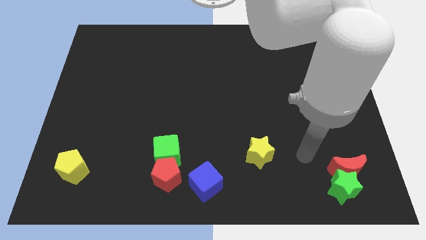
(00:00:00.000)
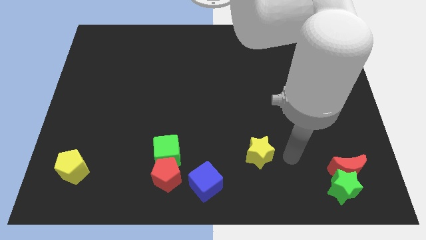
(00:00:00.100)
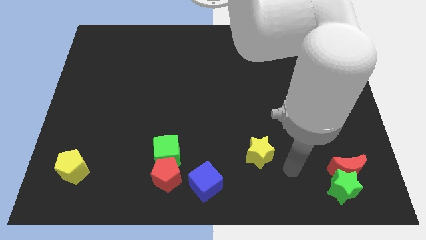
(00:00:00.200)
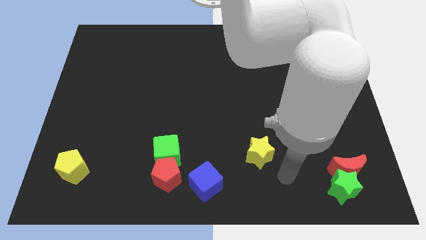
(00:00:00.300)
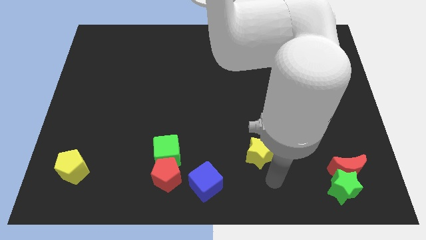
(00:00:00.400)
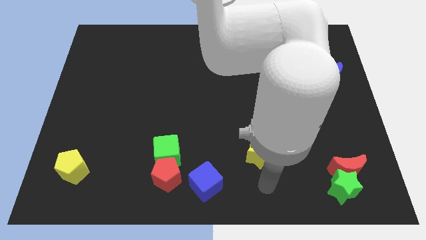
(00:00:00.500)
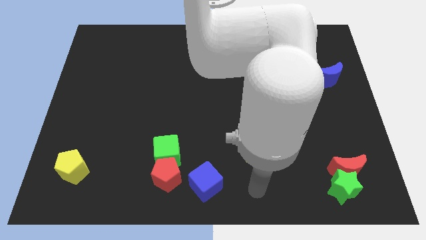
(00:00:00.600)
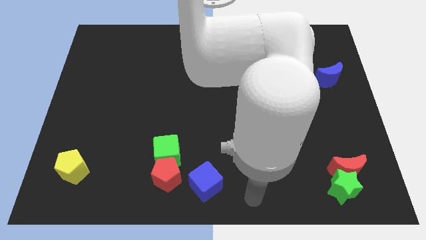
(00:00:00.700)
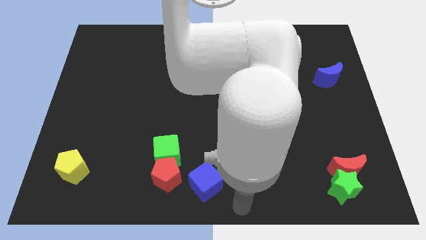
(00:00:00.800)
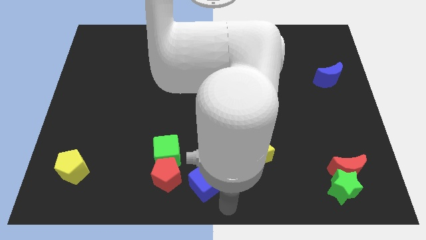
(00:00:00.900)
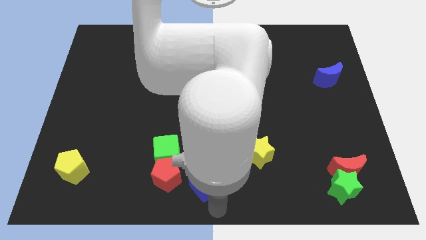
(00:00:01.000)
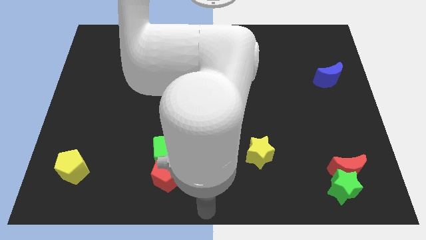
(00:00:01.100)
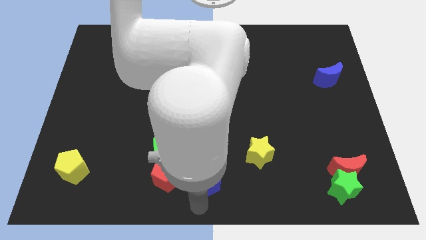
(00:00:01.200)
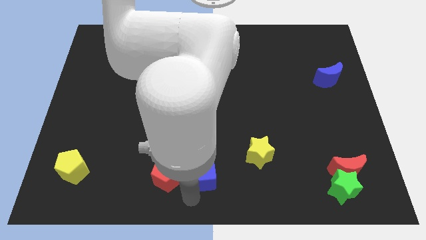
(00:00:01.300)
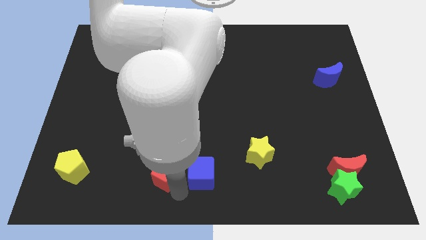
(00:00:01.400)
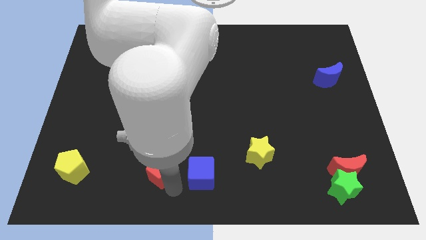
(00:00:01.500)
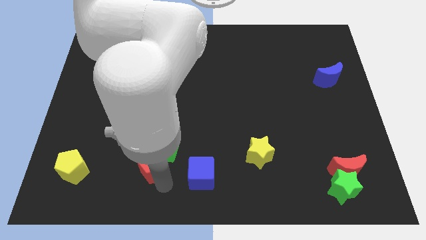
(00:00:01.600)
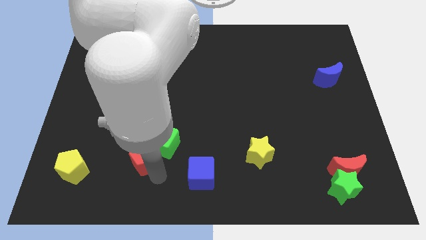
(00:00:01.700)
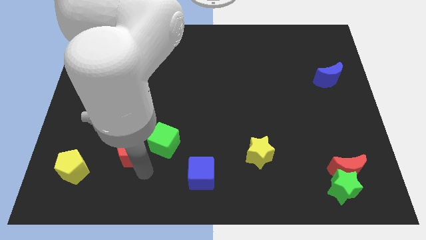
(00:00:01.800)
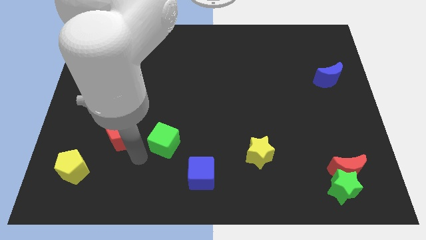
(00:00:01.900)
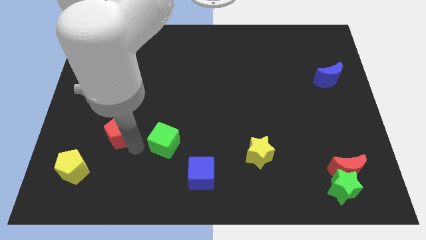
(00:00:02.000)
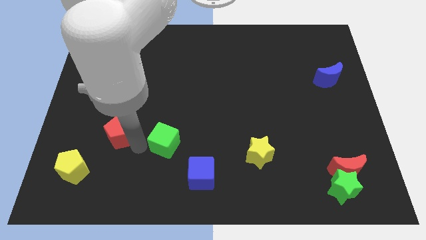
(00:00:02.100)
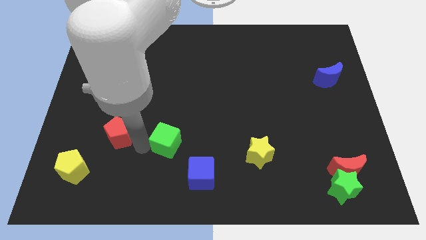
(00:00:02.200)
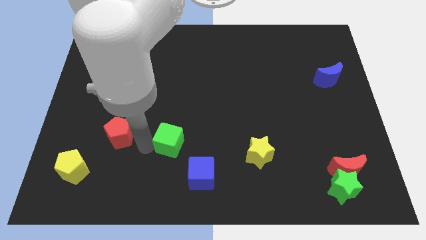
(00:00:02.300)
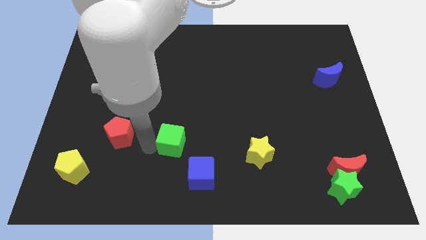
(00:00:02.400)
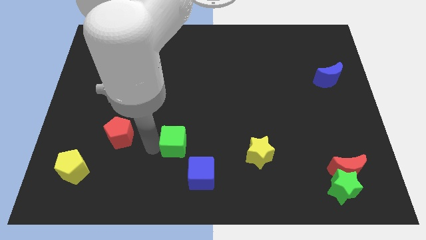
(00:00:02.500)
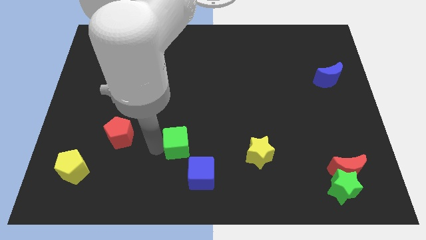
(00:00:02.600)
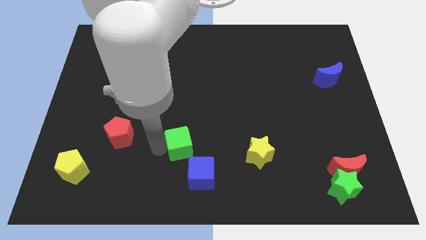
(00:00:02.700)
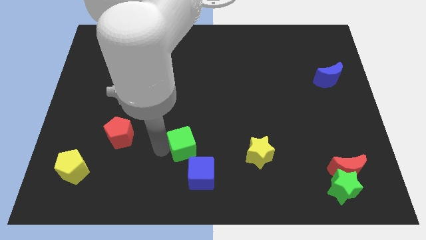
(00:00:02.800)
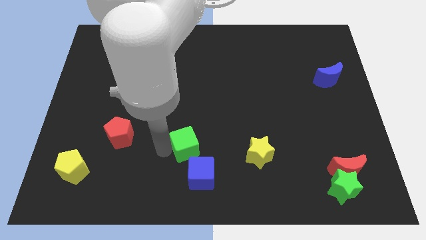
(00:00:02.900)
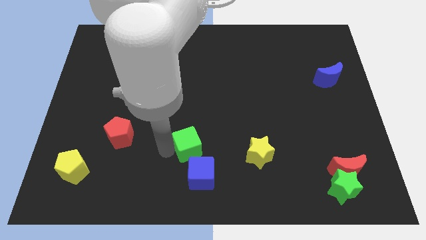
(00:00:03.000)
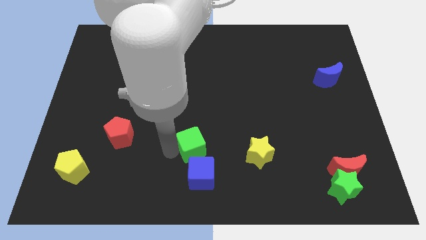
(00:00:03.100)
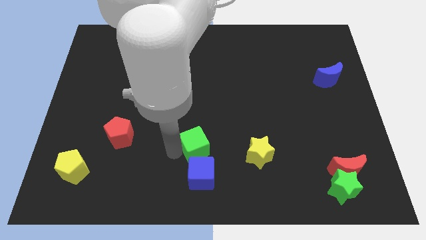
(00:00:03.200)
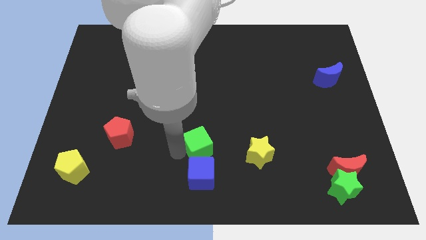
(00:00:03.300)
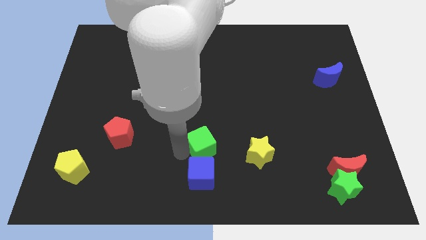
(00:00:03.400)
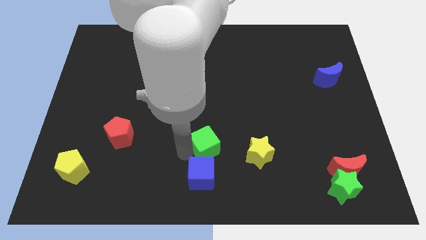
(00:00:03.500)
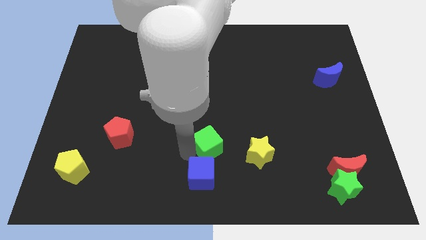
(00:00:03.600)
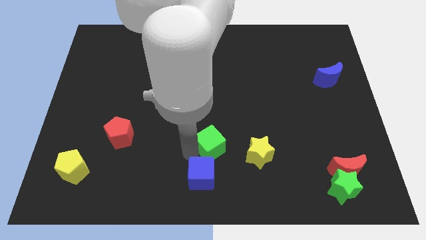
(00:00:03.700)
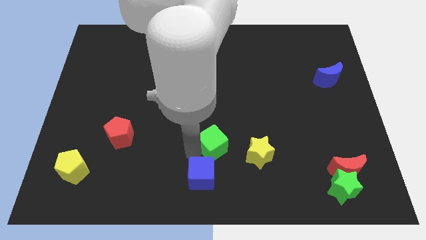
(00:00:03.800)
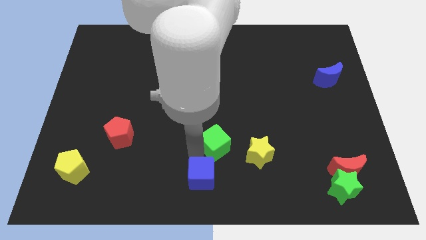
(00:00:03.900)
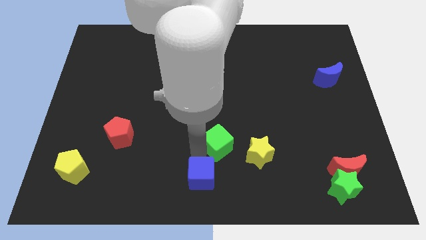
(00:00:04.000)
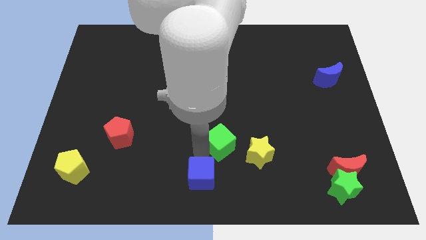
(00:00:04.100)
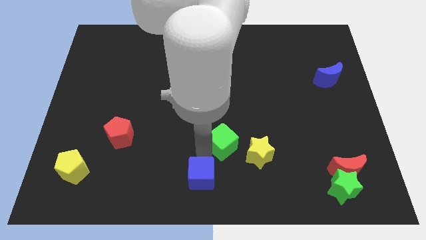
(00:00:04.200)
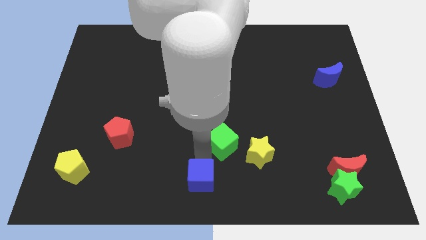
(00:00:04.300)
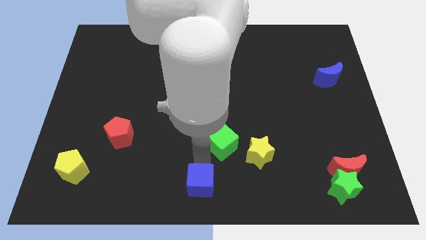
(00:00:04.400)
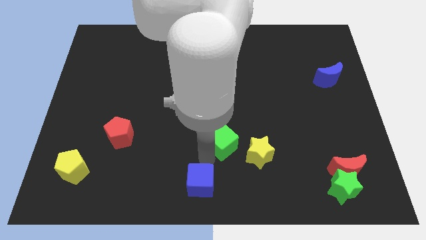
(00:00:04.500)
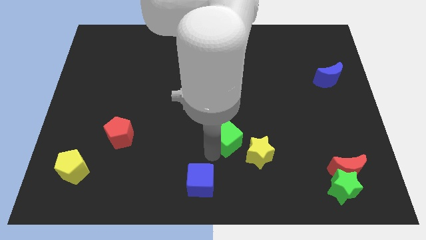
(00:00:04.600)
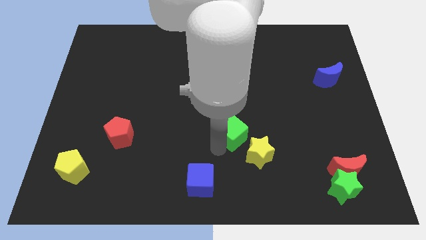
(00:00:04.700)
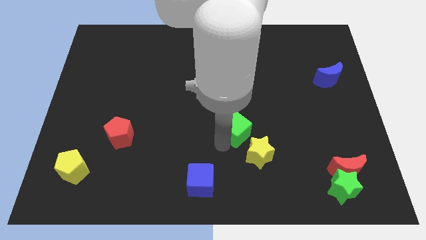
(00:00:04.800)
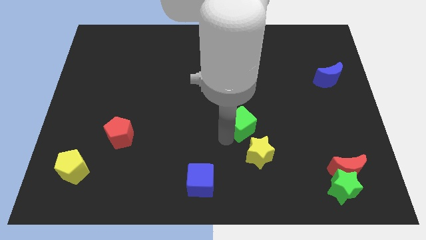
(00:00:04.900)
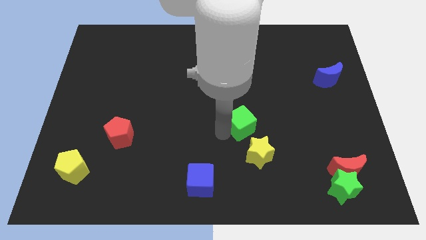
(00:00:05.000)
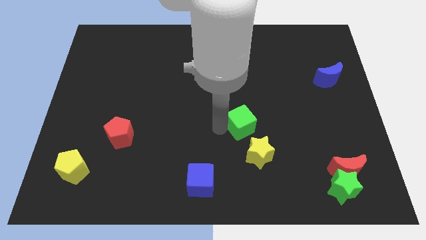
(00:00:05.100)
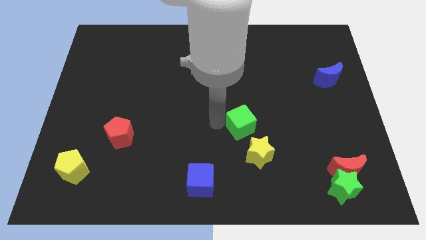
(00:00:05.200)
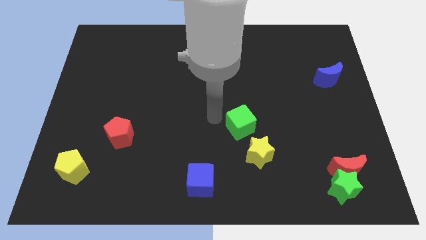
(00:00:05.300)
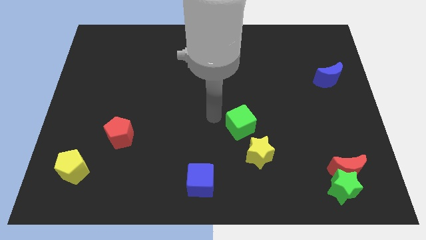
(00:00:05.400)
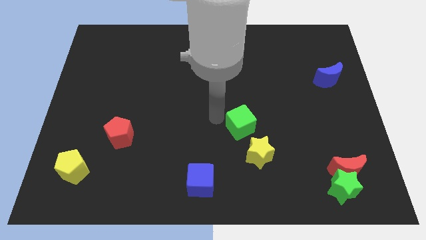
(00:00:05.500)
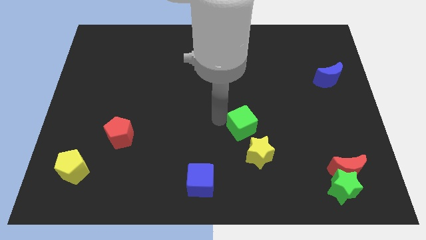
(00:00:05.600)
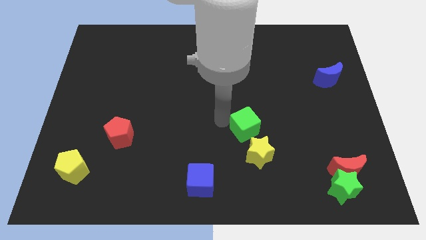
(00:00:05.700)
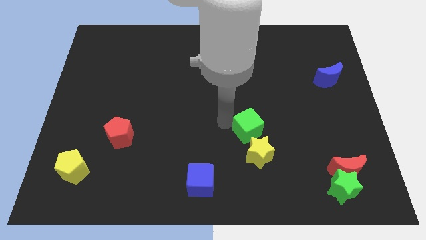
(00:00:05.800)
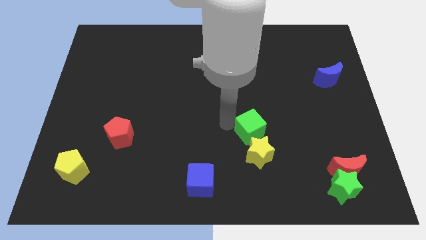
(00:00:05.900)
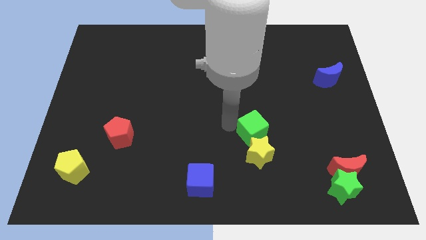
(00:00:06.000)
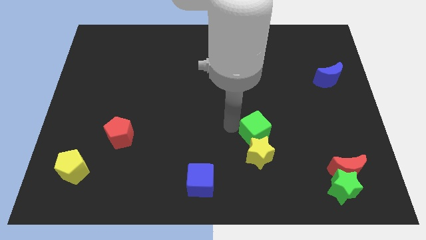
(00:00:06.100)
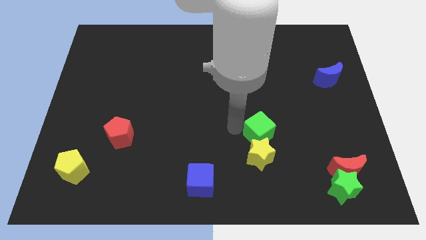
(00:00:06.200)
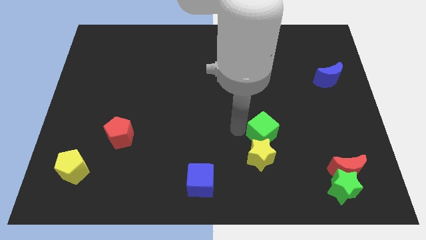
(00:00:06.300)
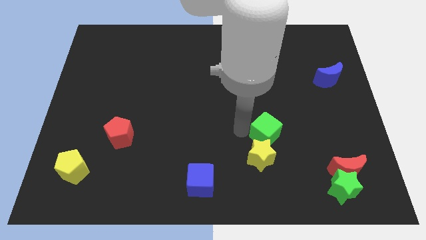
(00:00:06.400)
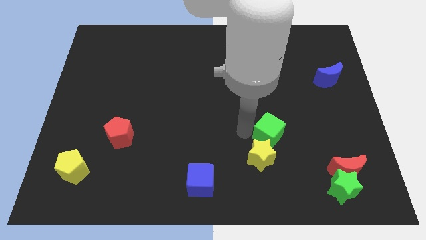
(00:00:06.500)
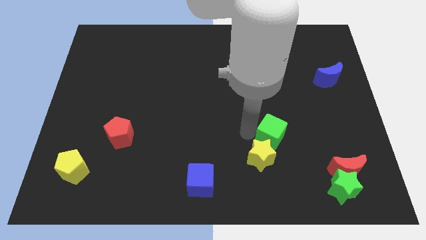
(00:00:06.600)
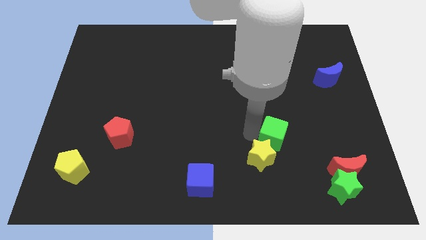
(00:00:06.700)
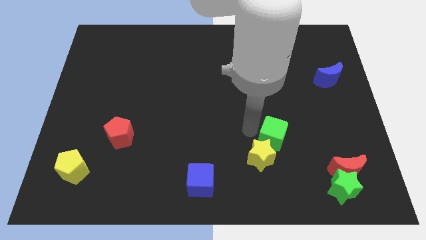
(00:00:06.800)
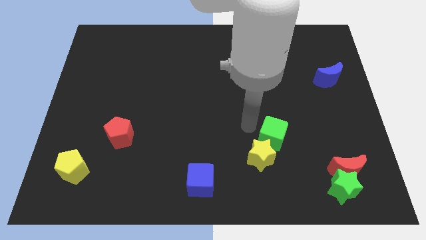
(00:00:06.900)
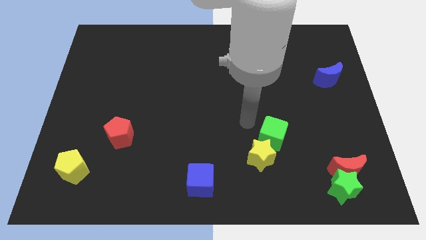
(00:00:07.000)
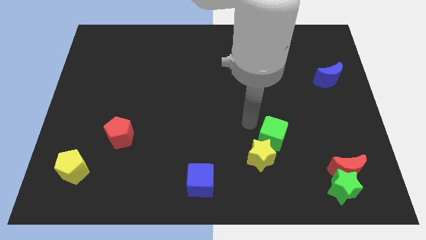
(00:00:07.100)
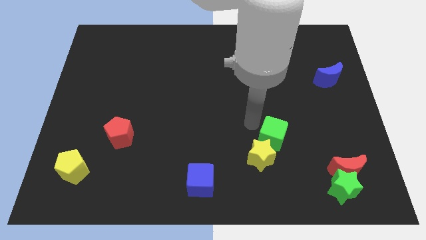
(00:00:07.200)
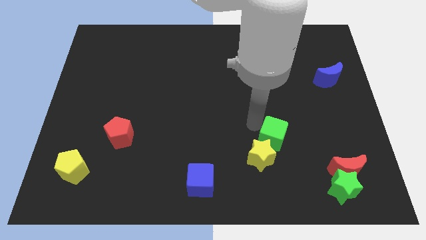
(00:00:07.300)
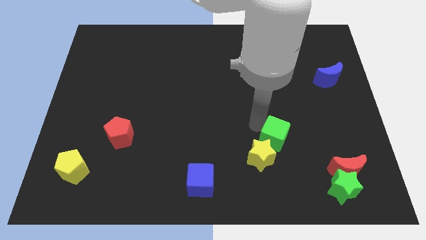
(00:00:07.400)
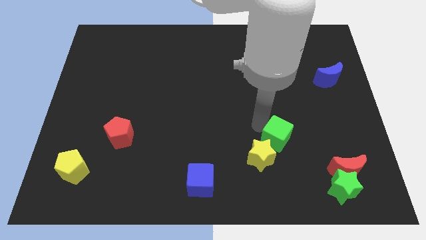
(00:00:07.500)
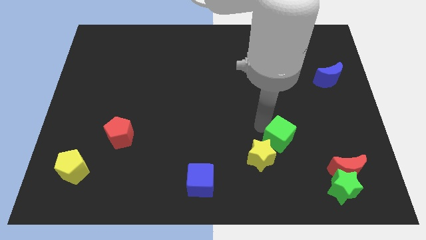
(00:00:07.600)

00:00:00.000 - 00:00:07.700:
put the green cube to the right side of the yellow star
